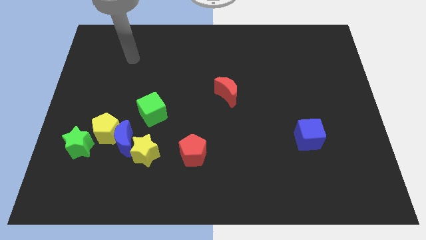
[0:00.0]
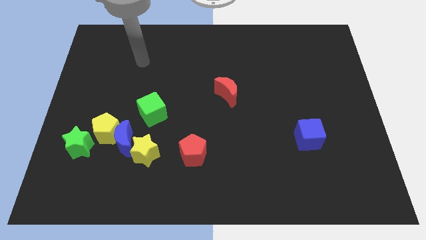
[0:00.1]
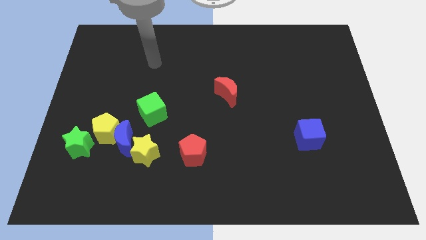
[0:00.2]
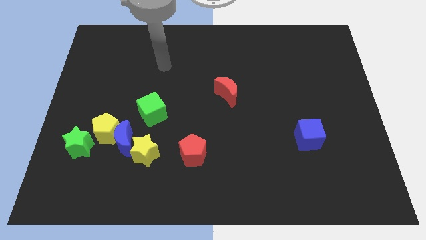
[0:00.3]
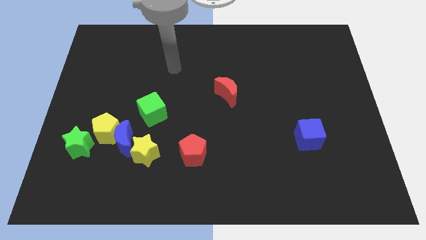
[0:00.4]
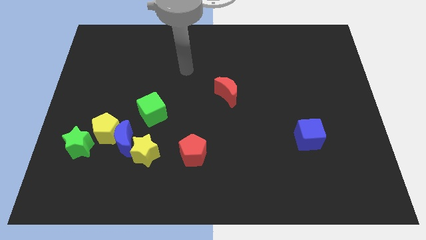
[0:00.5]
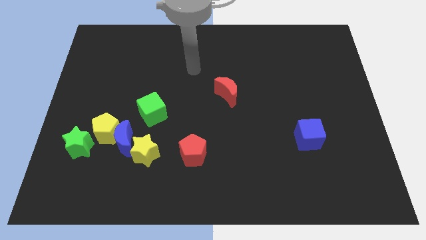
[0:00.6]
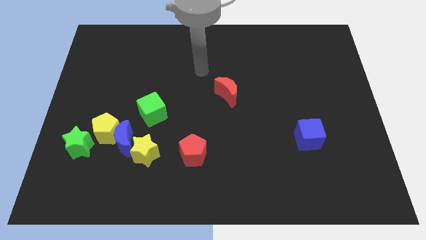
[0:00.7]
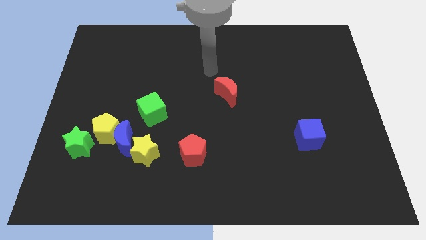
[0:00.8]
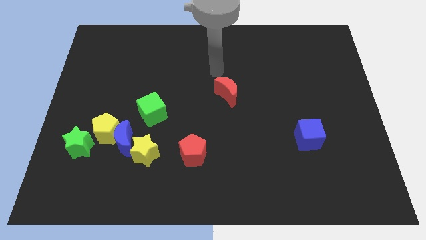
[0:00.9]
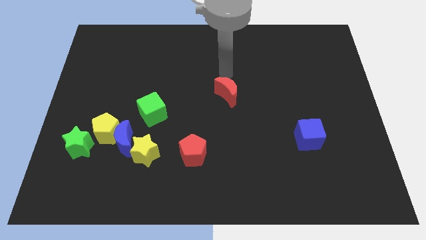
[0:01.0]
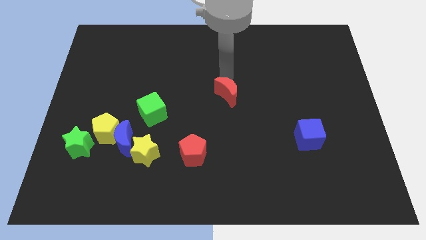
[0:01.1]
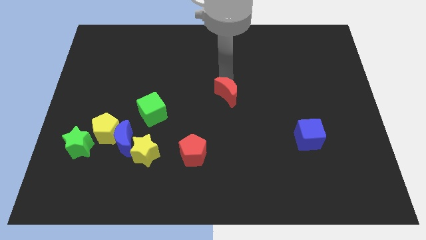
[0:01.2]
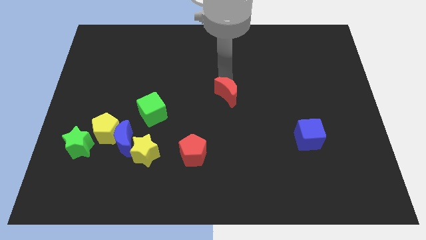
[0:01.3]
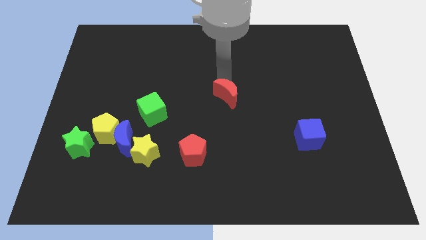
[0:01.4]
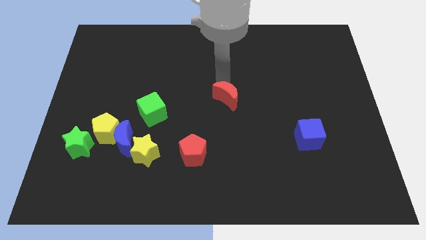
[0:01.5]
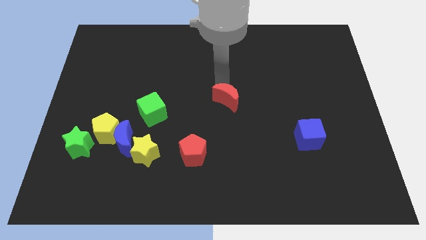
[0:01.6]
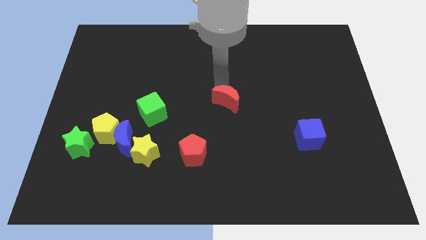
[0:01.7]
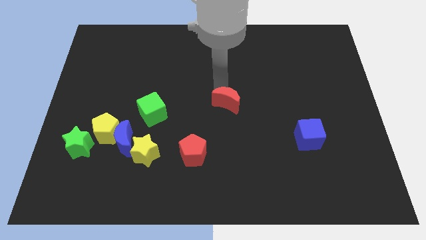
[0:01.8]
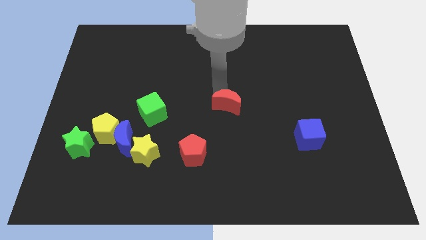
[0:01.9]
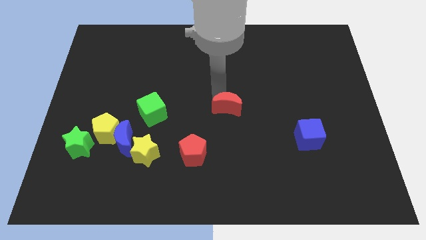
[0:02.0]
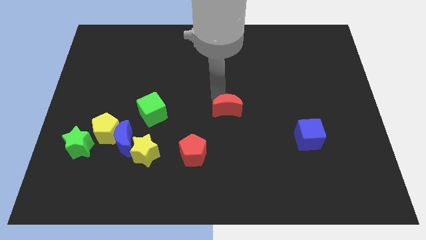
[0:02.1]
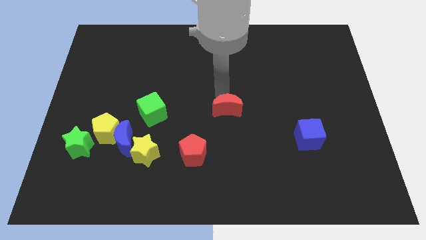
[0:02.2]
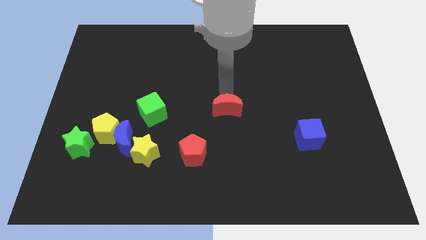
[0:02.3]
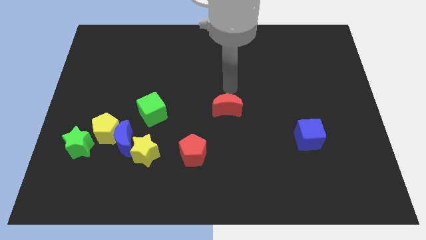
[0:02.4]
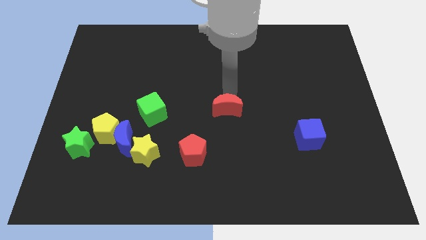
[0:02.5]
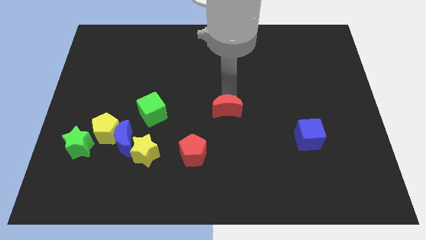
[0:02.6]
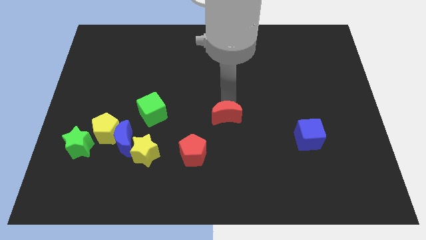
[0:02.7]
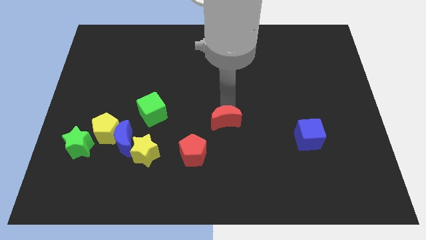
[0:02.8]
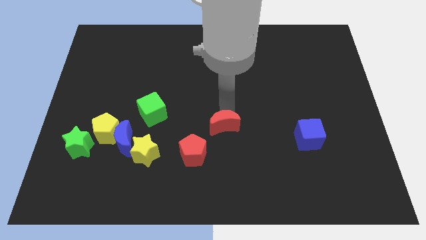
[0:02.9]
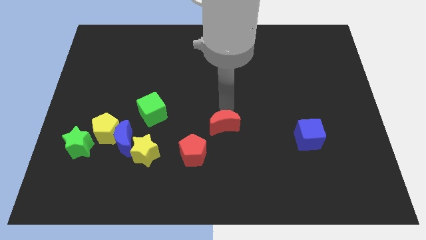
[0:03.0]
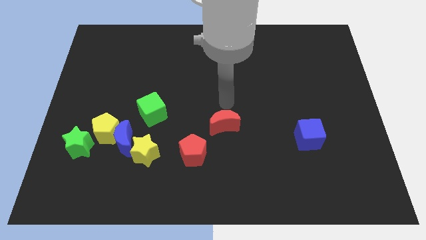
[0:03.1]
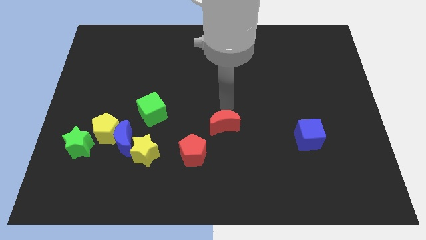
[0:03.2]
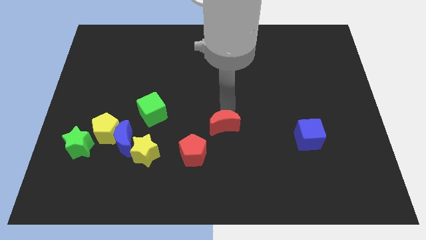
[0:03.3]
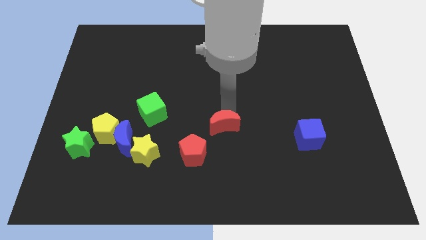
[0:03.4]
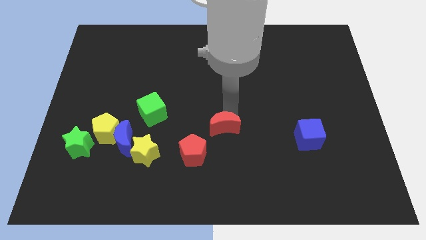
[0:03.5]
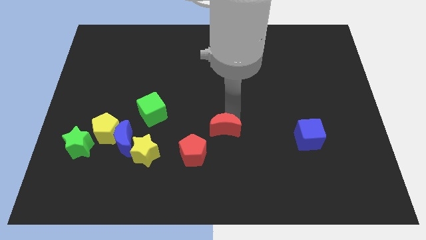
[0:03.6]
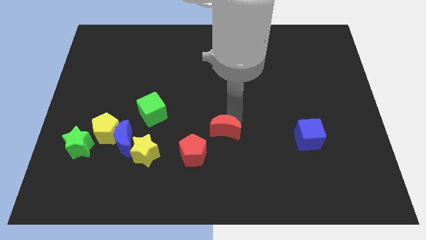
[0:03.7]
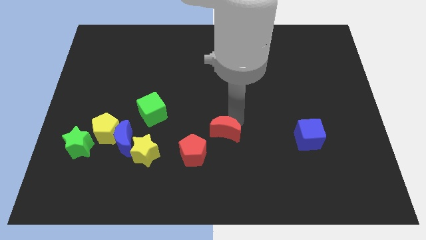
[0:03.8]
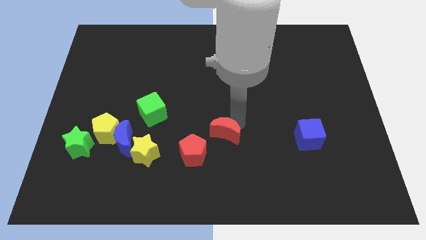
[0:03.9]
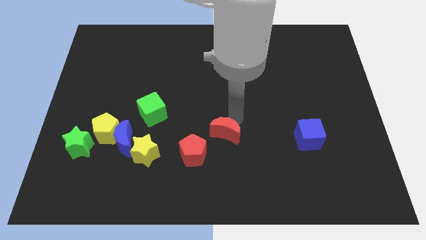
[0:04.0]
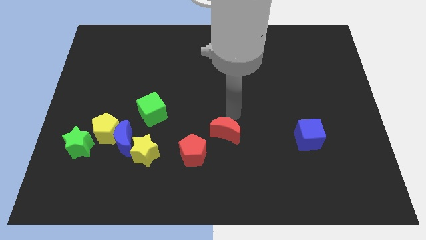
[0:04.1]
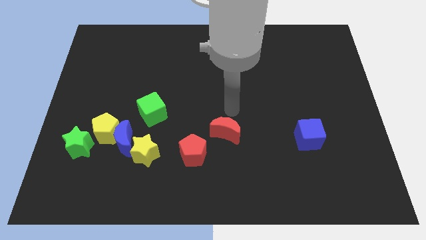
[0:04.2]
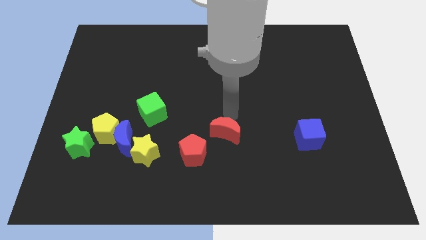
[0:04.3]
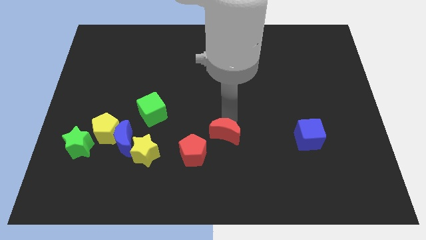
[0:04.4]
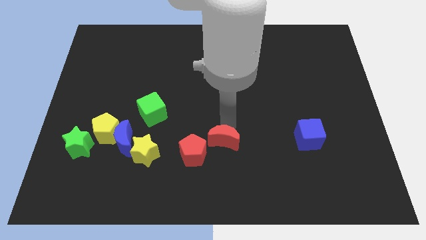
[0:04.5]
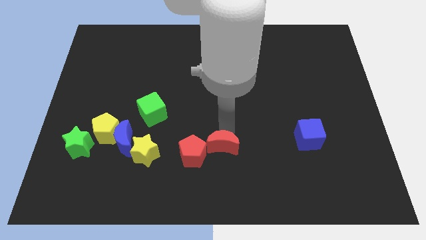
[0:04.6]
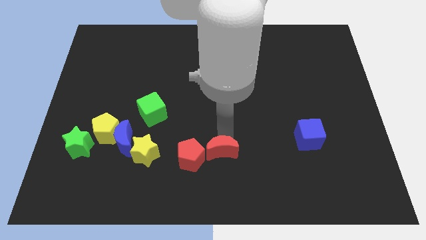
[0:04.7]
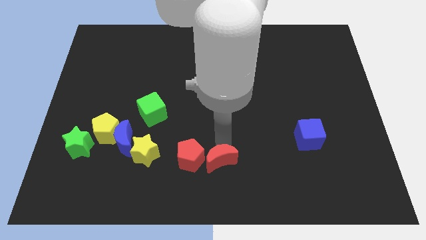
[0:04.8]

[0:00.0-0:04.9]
push the red moon to the bottom side

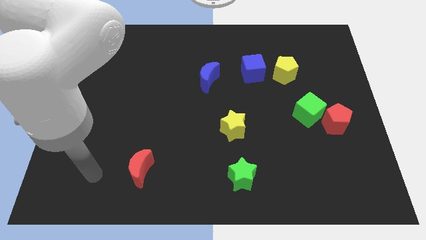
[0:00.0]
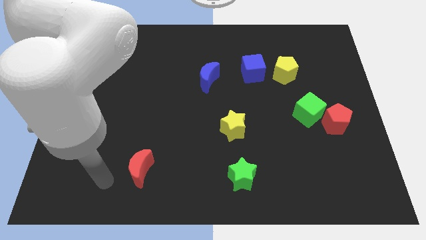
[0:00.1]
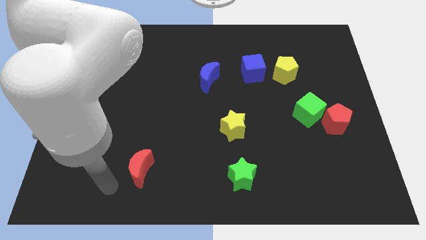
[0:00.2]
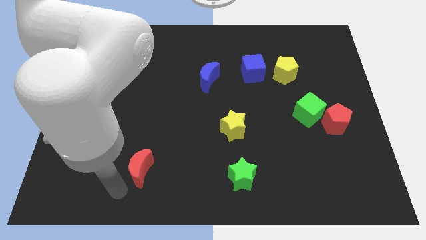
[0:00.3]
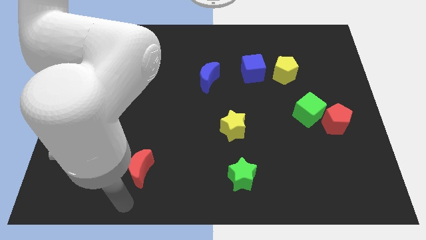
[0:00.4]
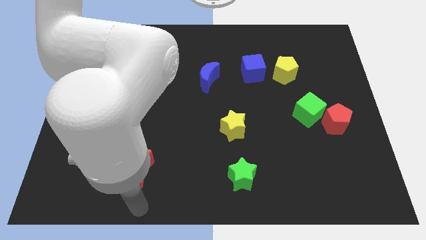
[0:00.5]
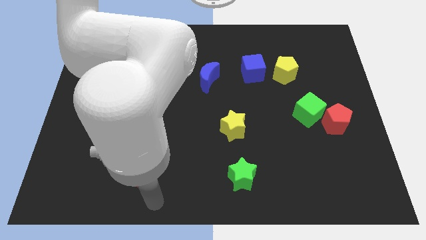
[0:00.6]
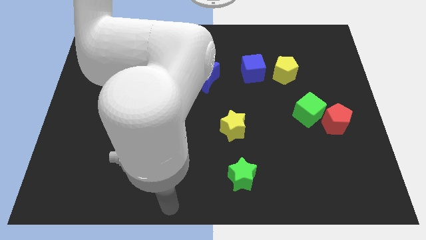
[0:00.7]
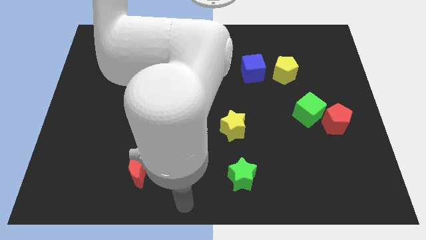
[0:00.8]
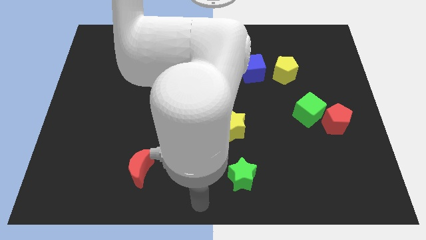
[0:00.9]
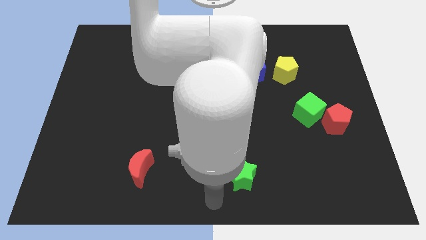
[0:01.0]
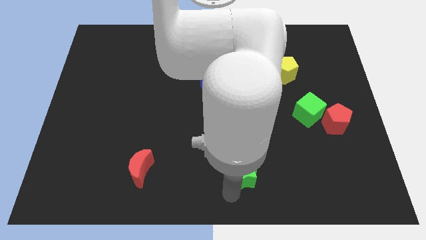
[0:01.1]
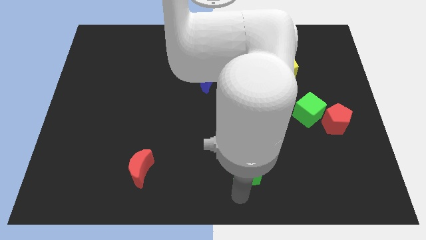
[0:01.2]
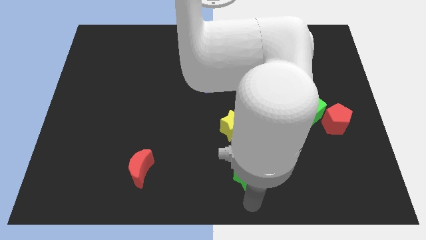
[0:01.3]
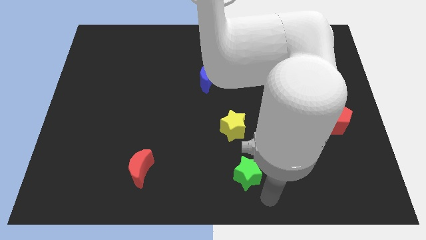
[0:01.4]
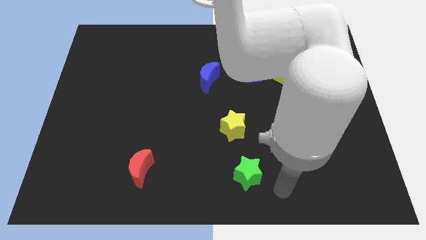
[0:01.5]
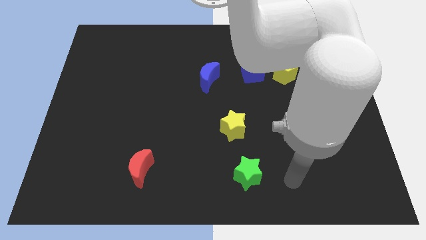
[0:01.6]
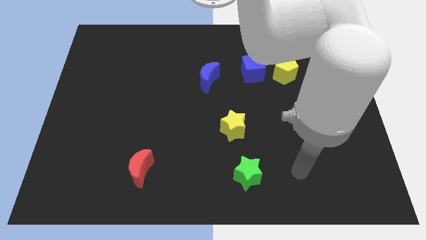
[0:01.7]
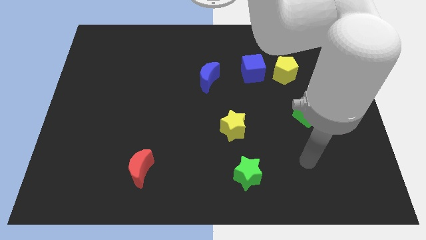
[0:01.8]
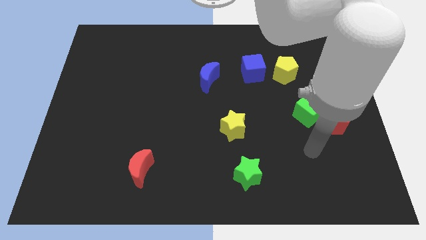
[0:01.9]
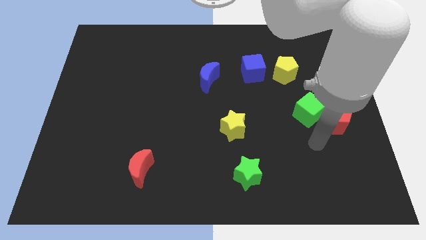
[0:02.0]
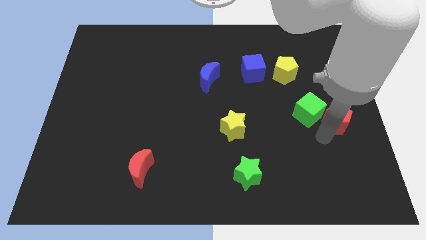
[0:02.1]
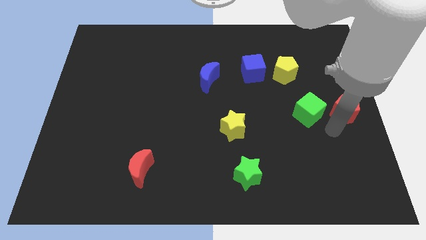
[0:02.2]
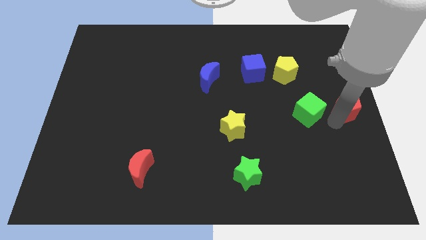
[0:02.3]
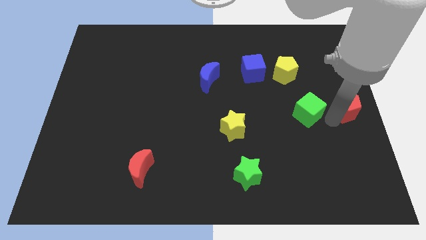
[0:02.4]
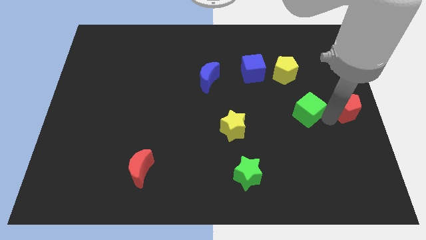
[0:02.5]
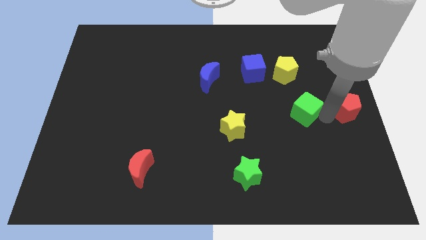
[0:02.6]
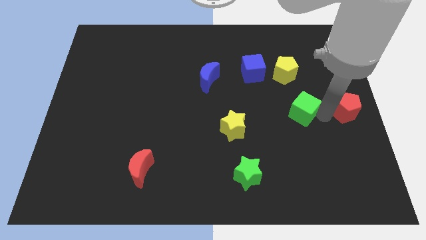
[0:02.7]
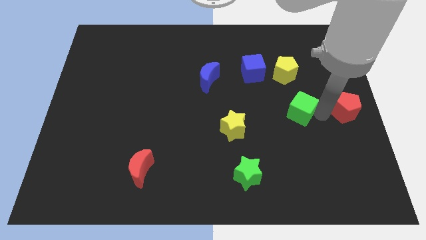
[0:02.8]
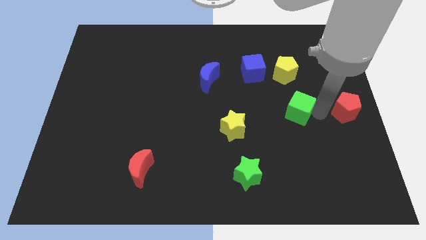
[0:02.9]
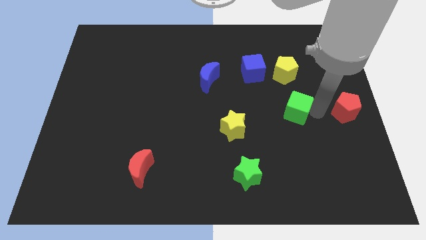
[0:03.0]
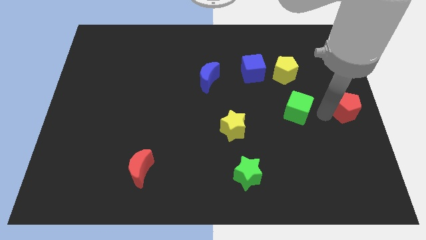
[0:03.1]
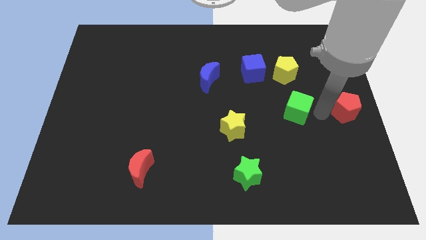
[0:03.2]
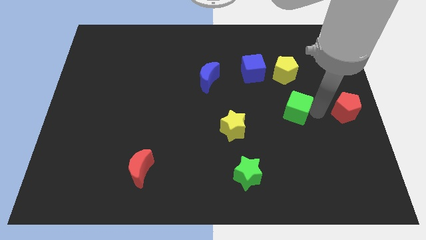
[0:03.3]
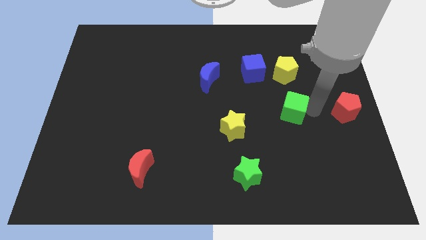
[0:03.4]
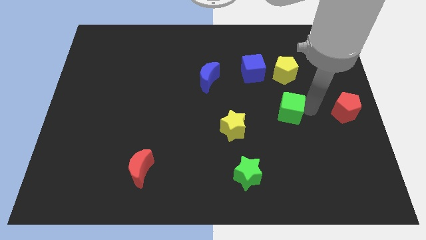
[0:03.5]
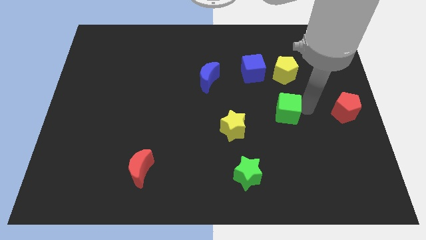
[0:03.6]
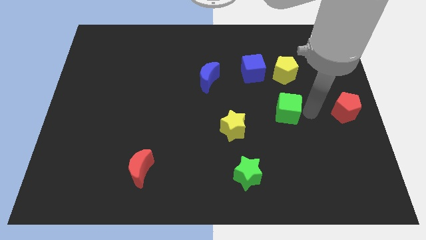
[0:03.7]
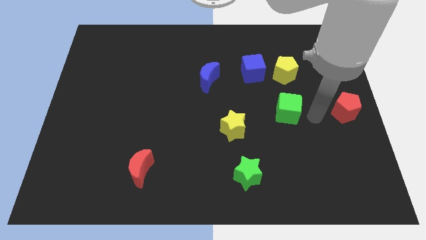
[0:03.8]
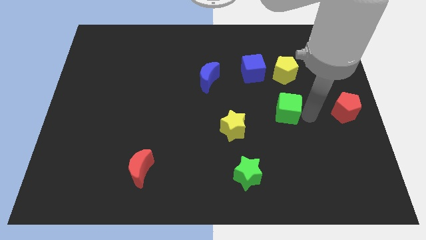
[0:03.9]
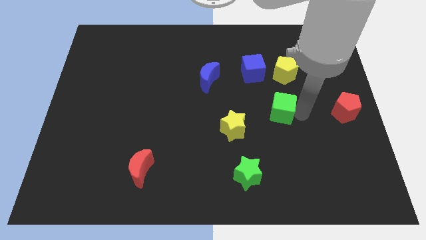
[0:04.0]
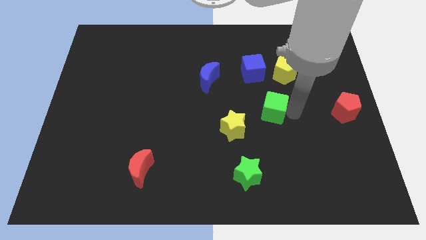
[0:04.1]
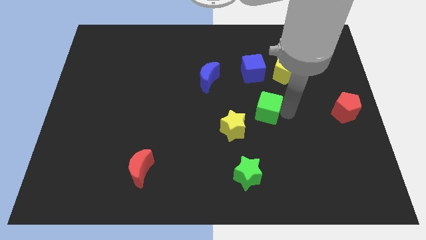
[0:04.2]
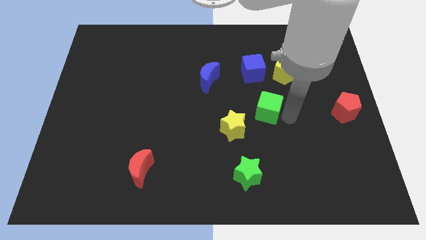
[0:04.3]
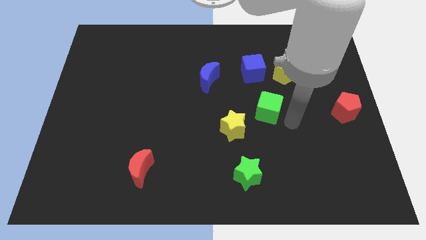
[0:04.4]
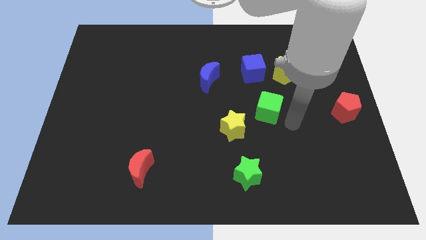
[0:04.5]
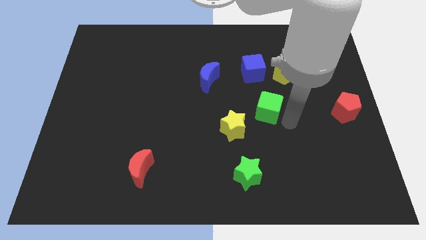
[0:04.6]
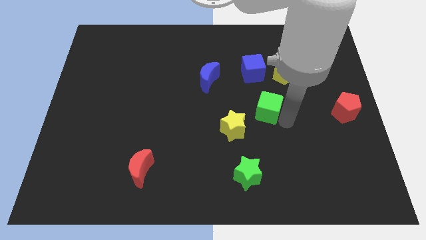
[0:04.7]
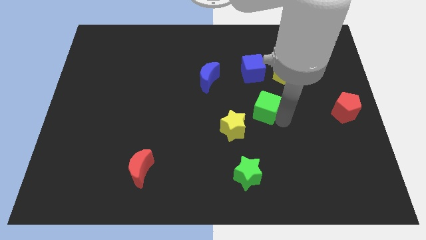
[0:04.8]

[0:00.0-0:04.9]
push the green cube to the center of the board
